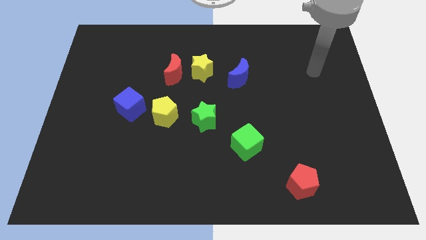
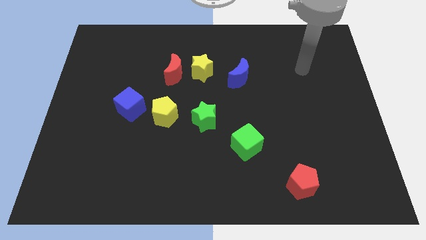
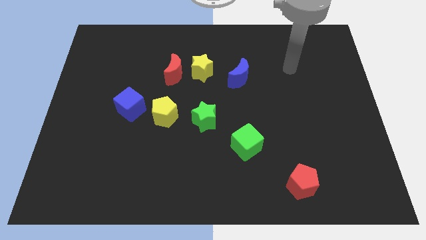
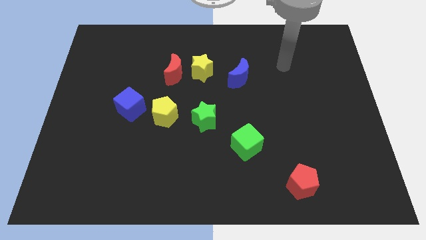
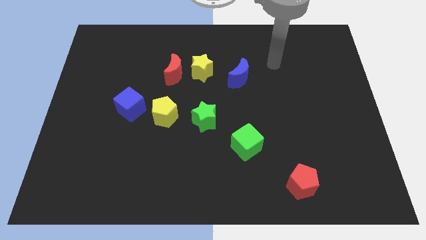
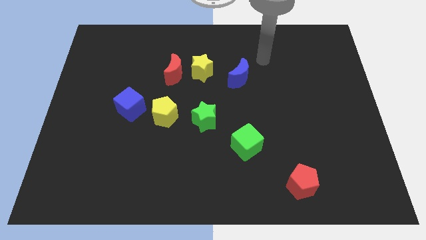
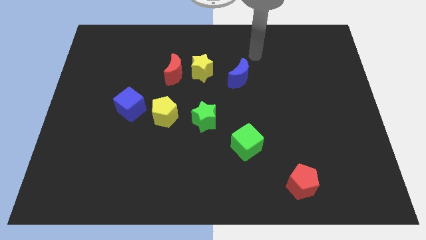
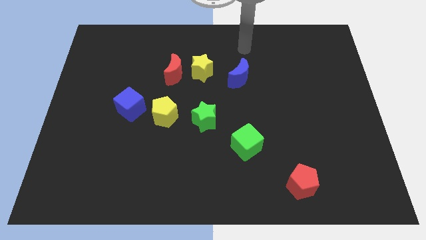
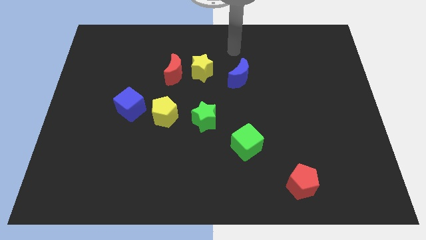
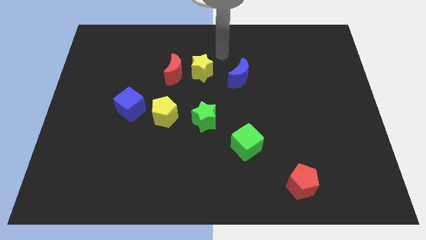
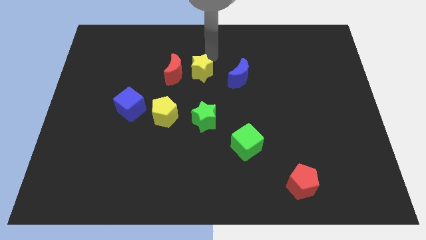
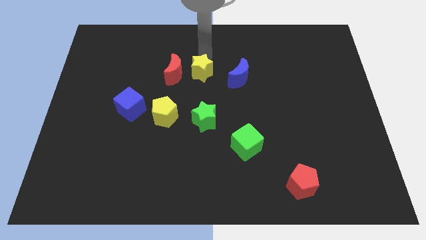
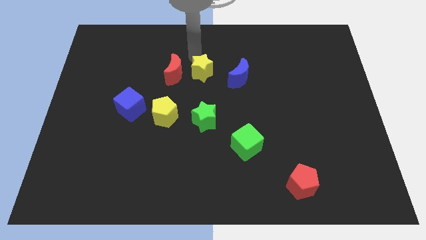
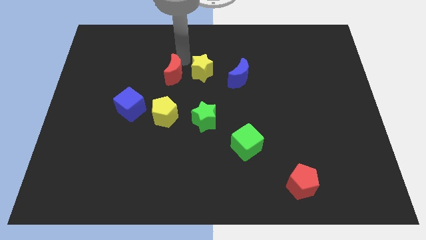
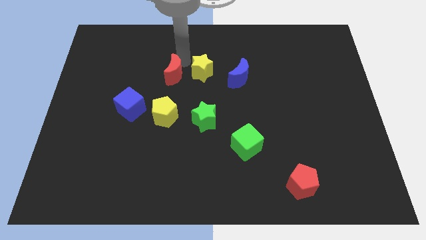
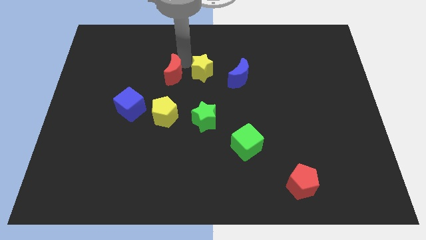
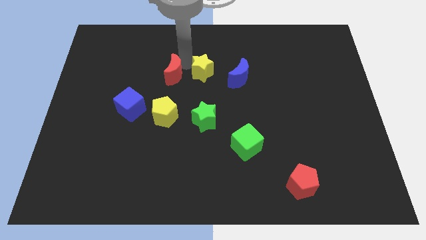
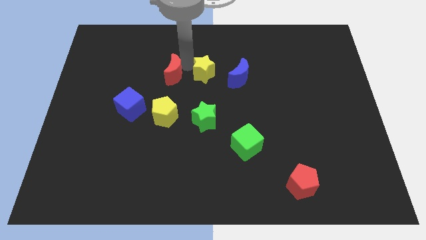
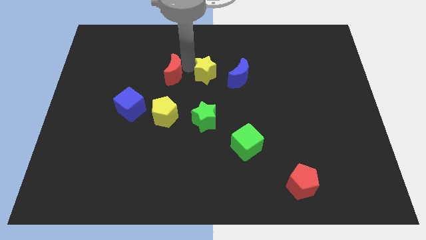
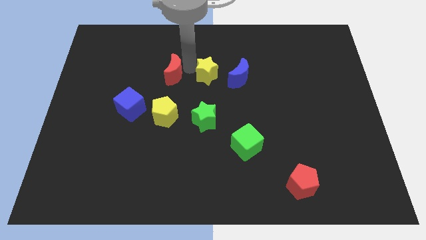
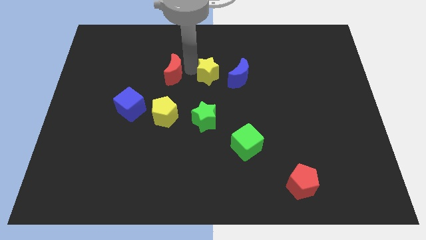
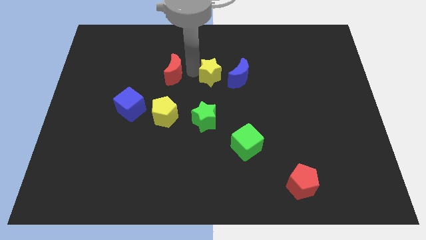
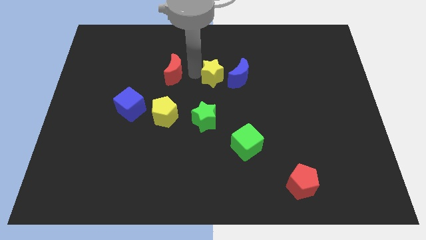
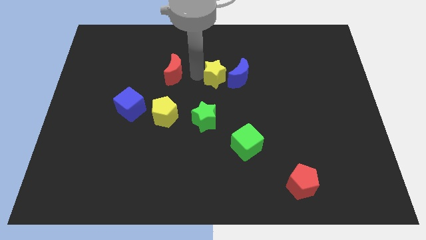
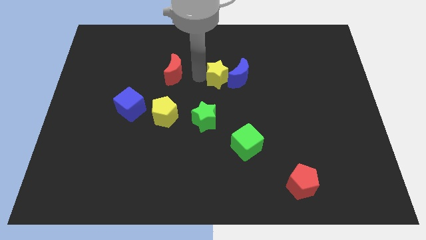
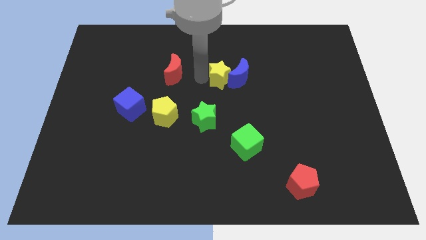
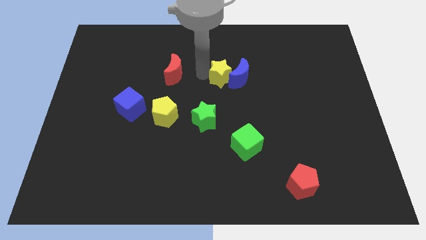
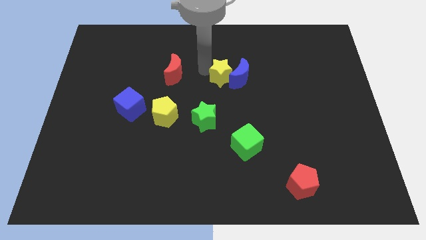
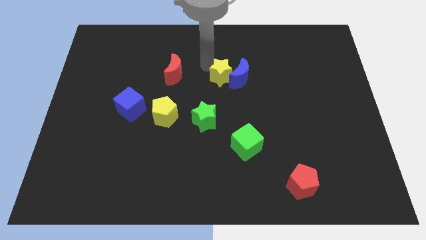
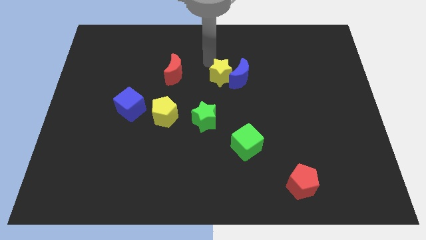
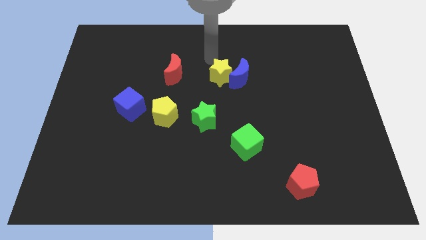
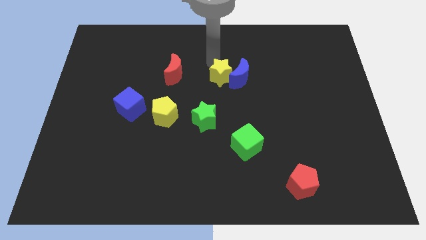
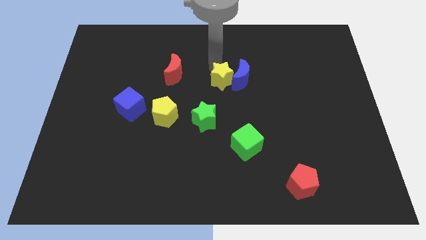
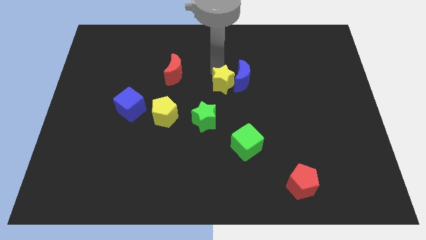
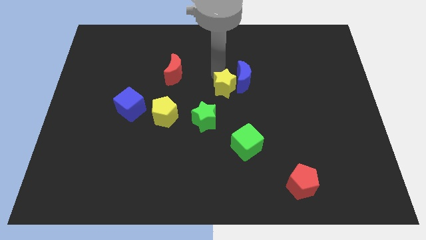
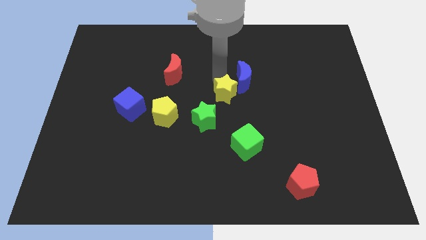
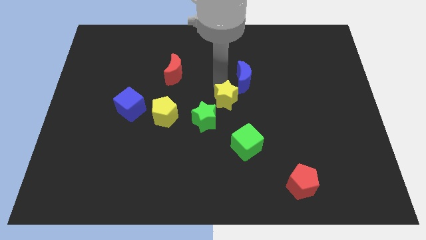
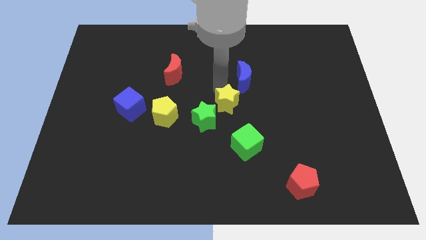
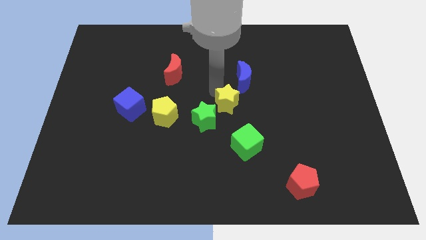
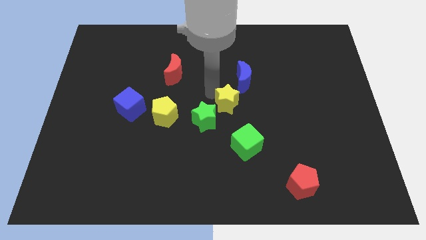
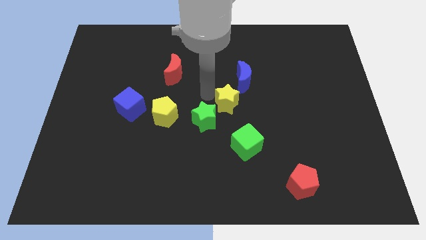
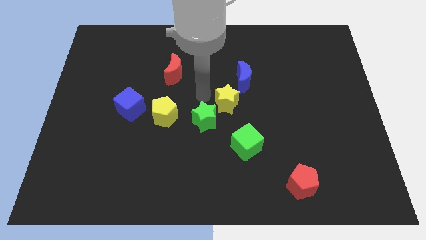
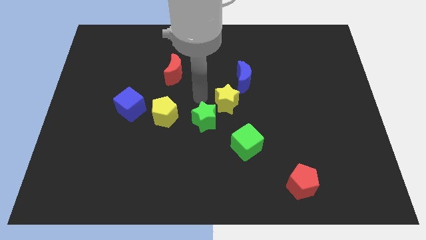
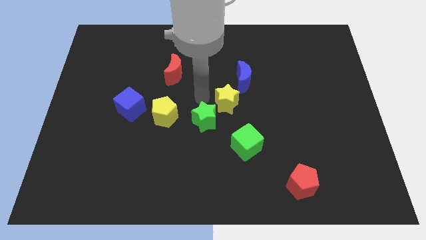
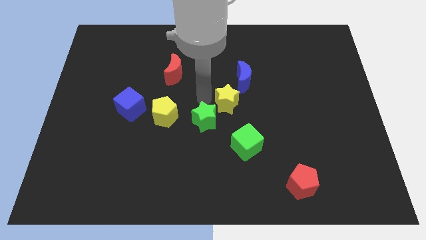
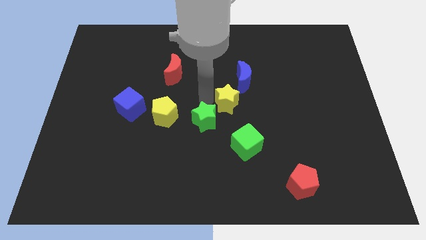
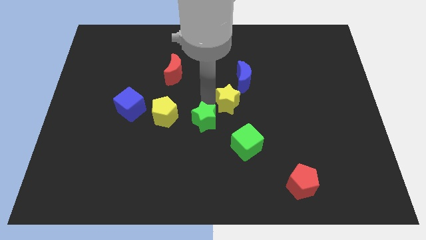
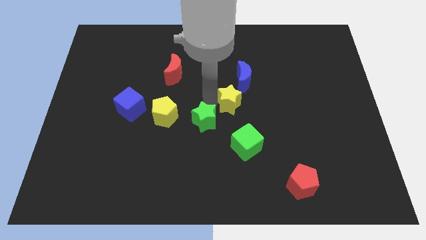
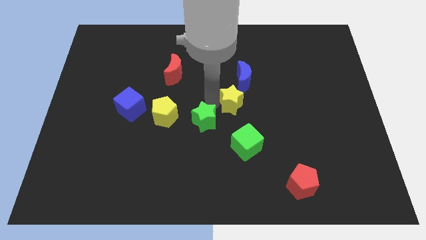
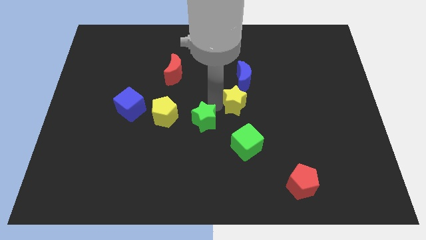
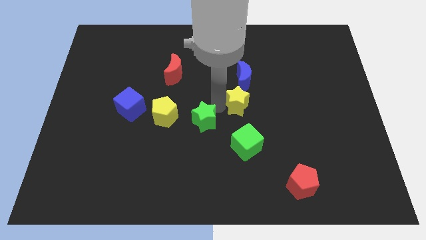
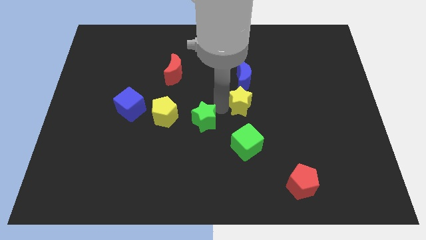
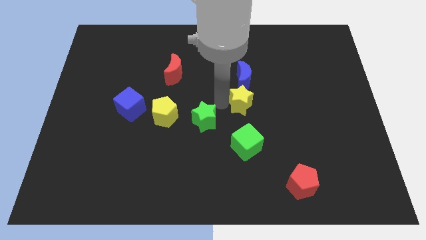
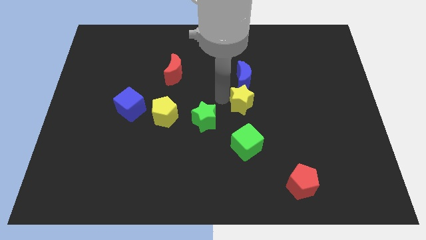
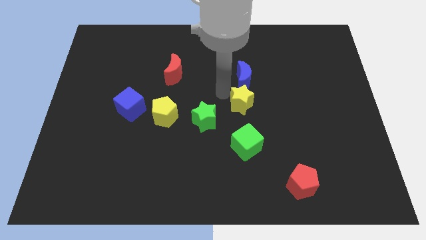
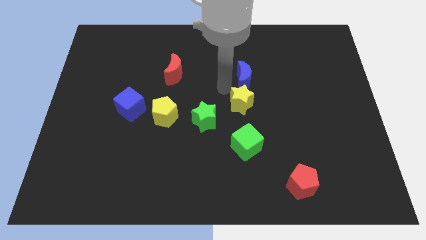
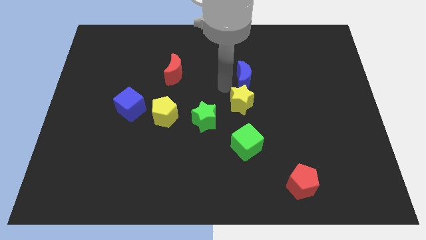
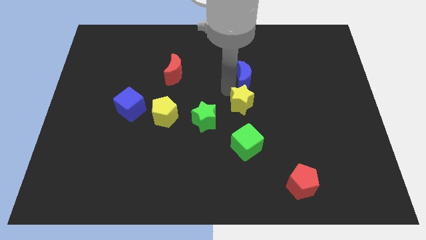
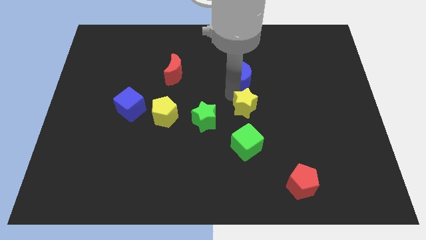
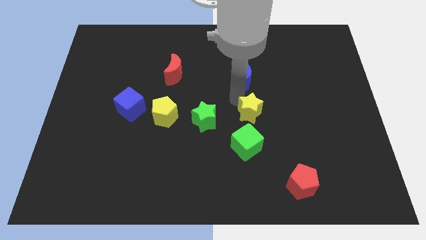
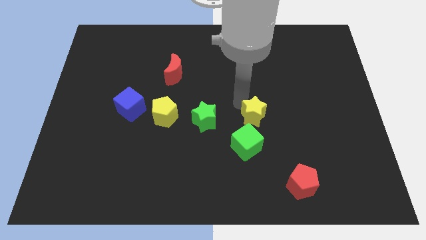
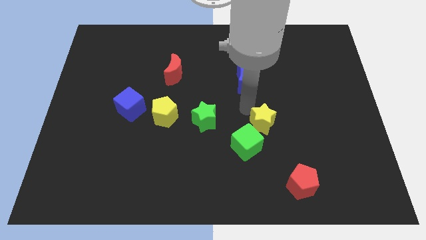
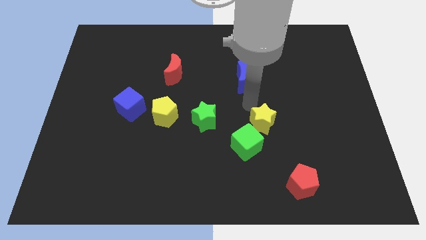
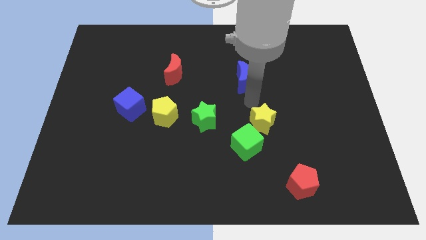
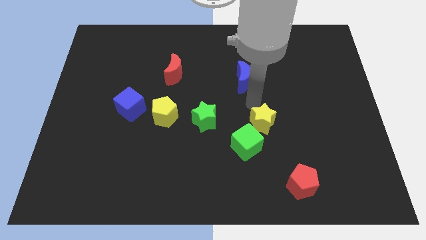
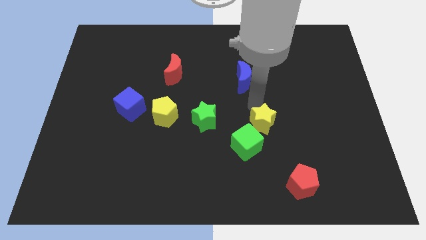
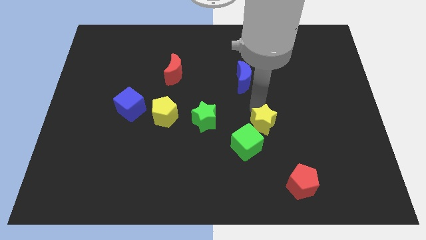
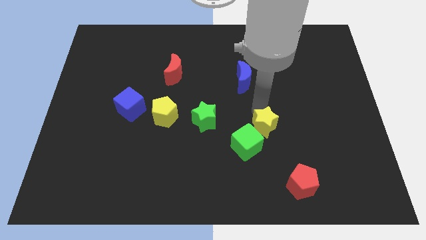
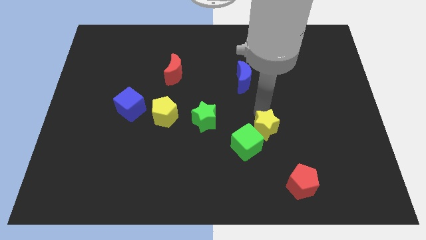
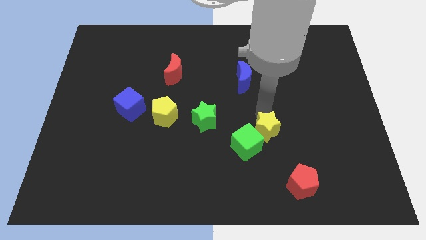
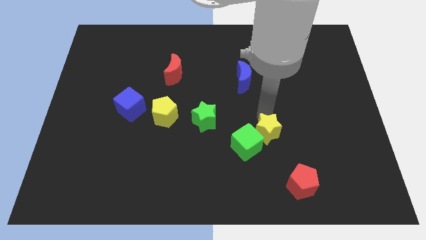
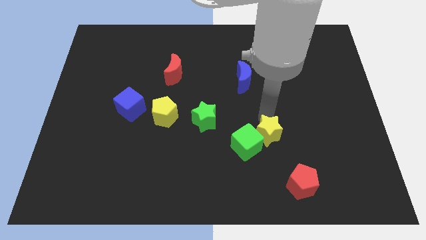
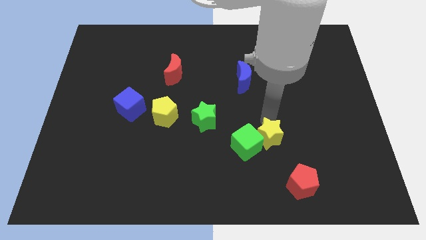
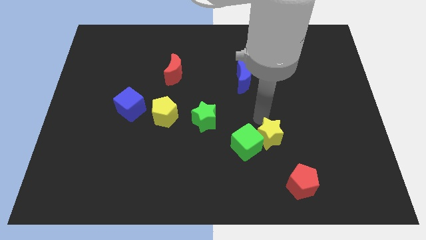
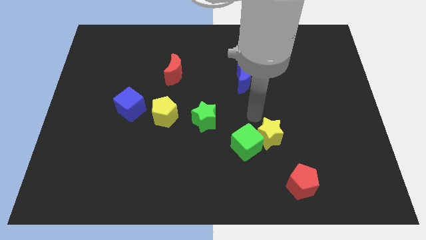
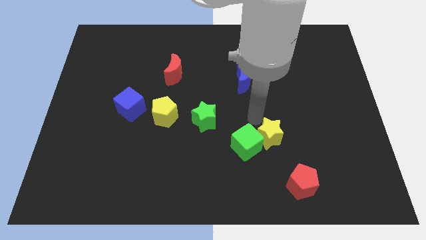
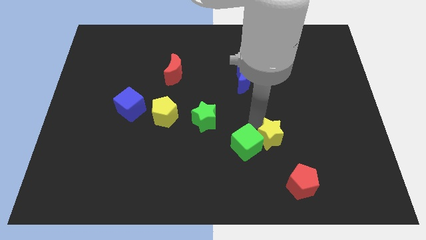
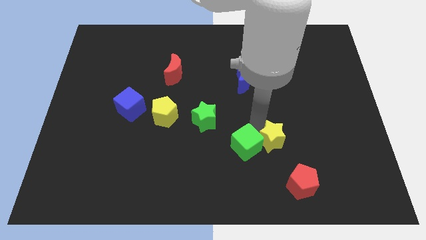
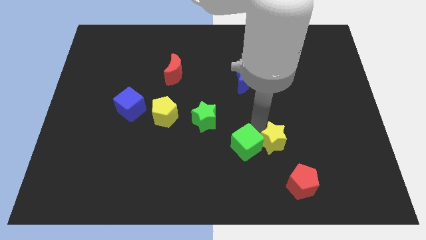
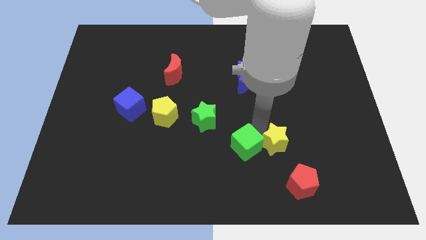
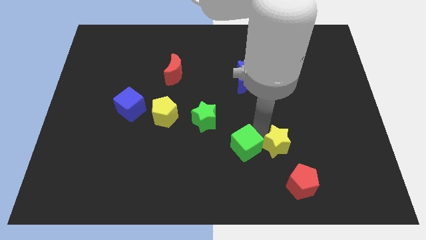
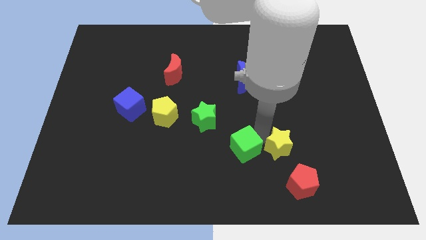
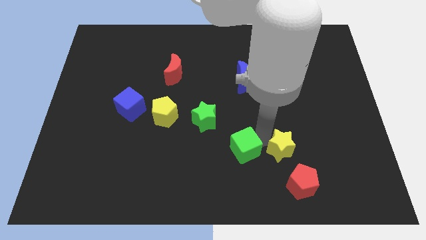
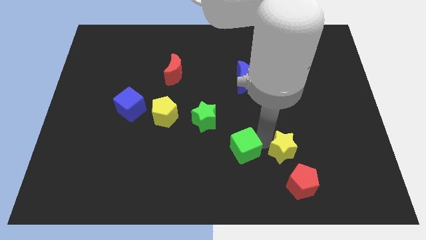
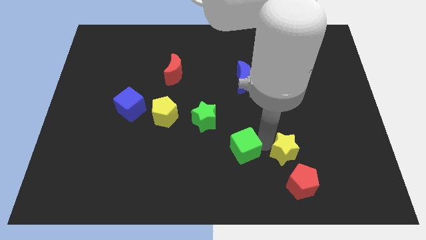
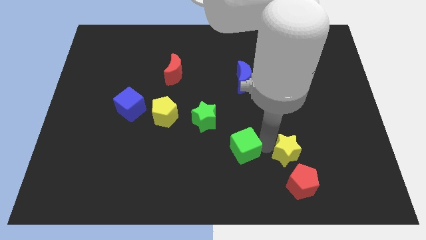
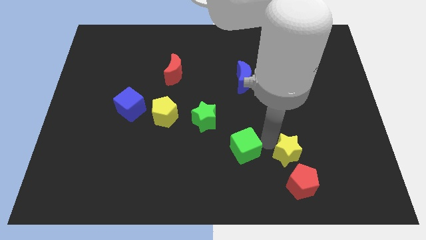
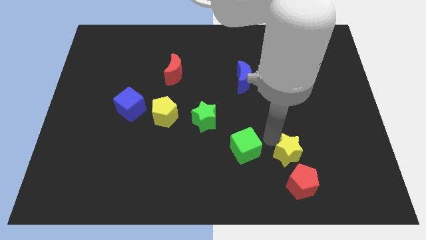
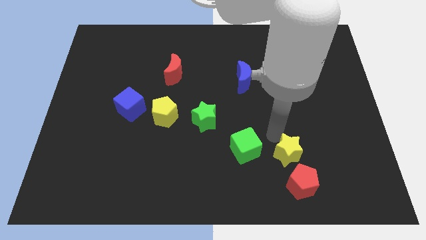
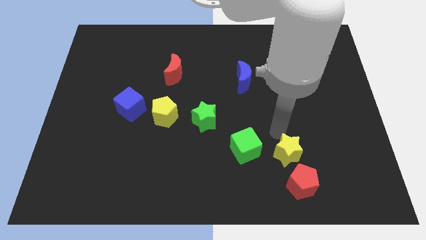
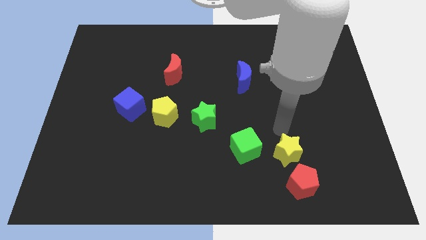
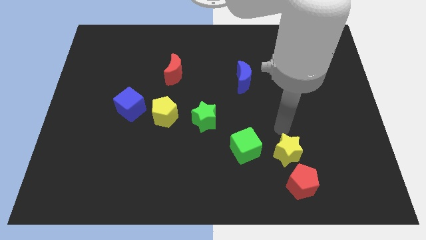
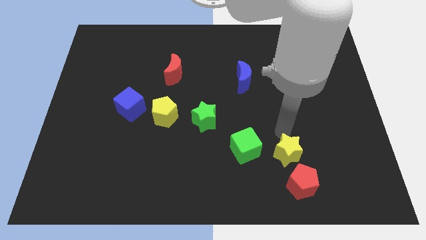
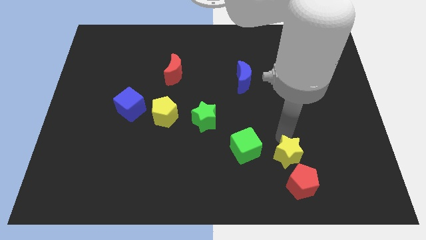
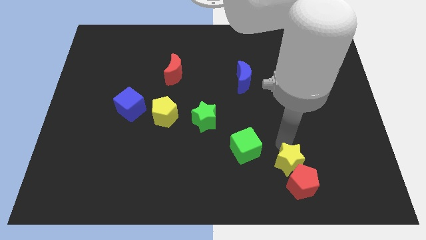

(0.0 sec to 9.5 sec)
push the yellow star next to the red pentagon
